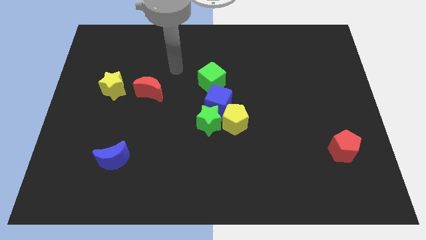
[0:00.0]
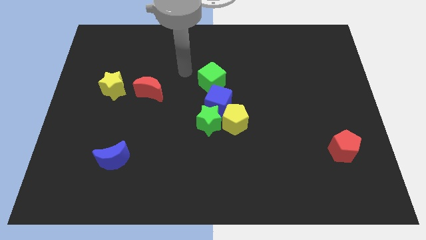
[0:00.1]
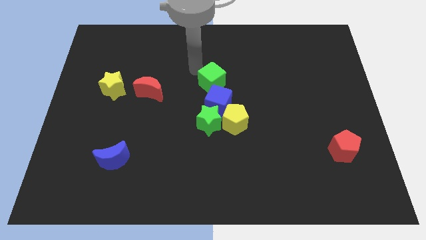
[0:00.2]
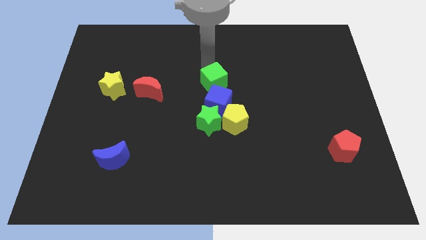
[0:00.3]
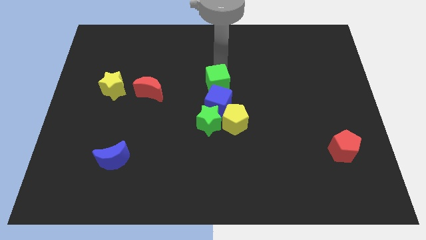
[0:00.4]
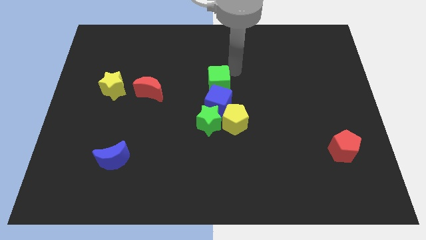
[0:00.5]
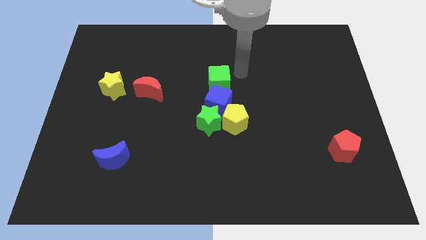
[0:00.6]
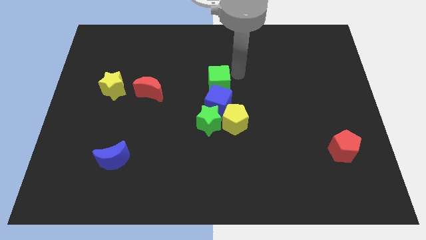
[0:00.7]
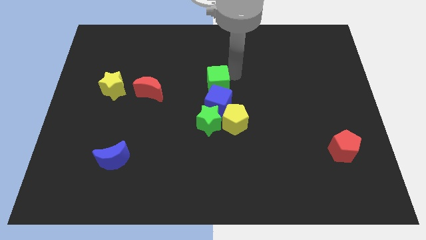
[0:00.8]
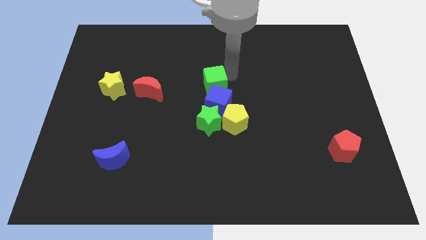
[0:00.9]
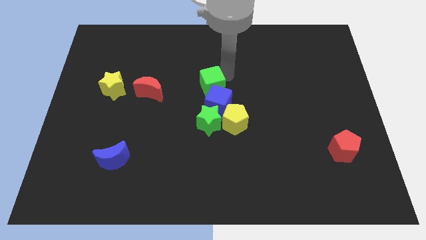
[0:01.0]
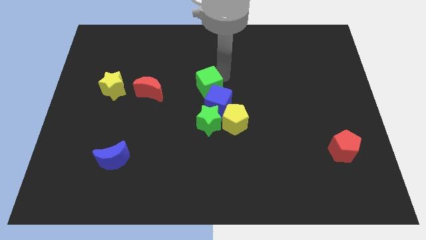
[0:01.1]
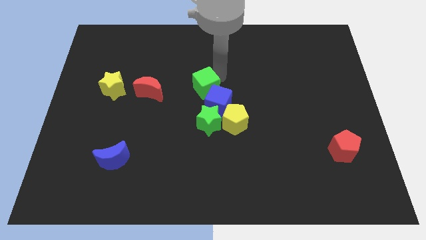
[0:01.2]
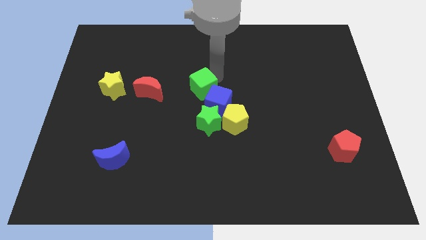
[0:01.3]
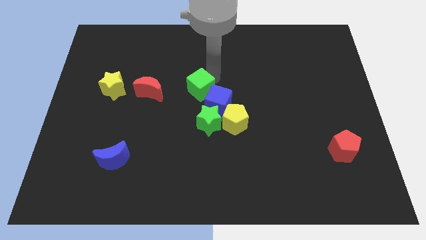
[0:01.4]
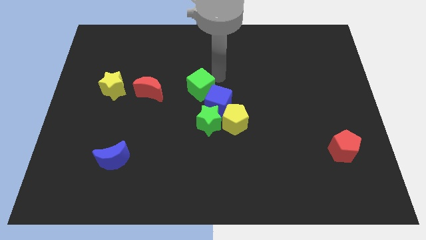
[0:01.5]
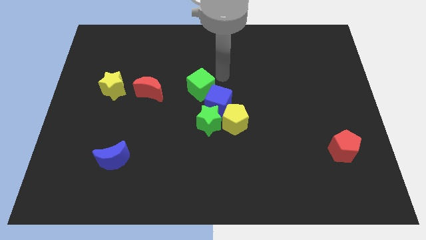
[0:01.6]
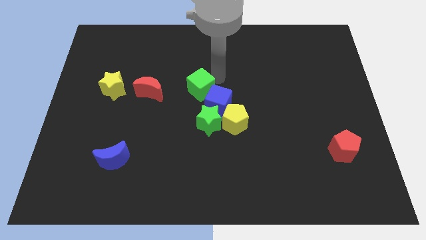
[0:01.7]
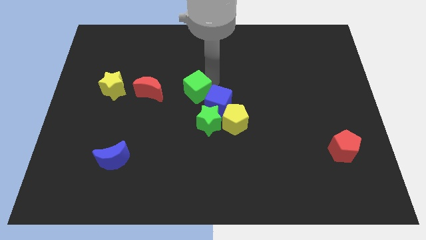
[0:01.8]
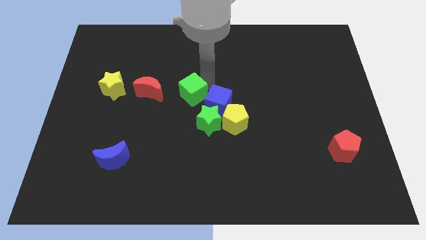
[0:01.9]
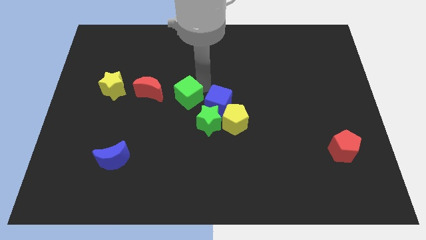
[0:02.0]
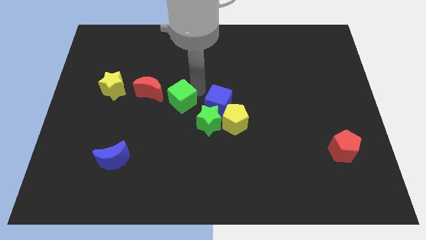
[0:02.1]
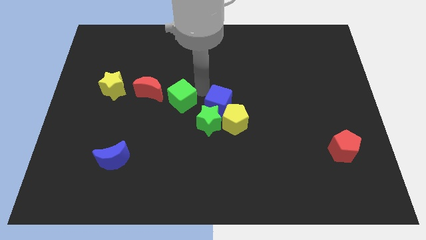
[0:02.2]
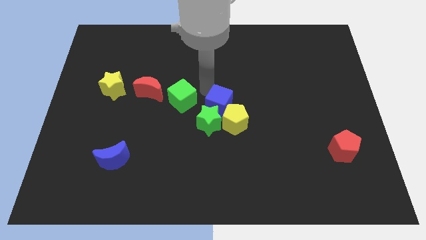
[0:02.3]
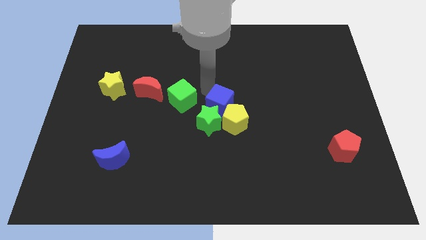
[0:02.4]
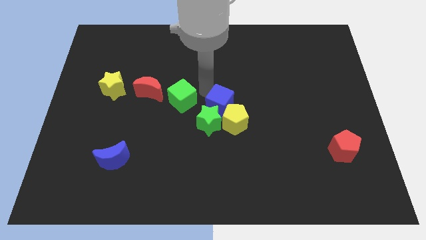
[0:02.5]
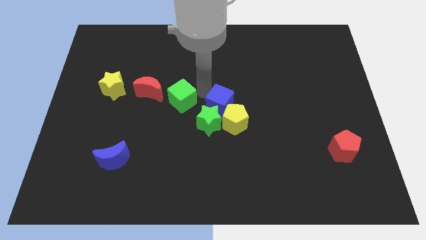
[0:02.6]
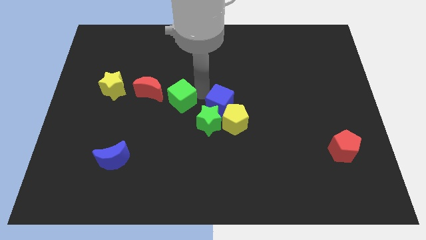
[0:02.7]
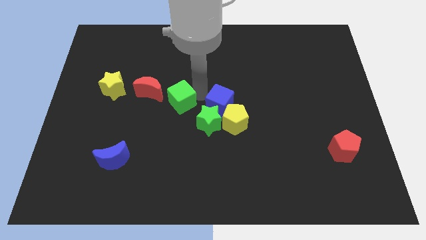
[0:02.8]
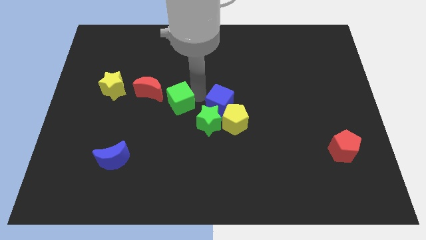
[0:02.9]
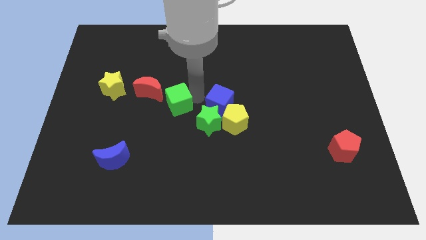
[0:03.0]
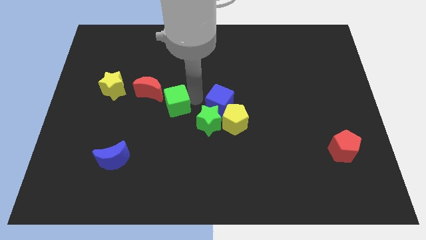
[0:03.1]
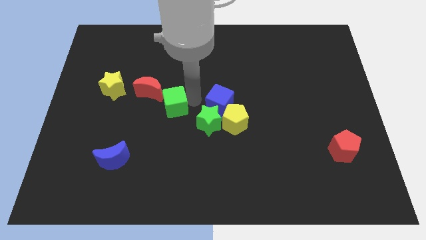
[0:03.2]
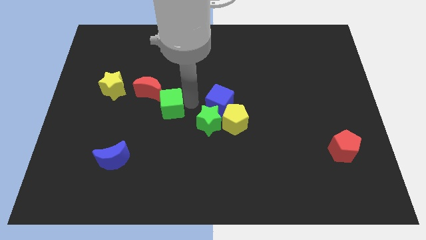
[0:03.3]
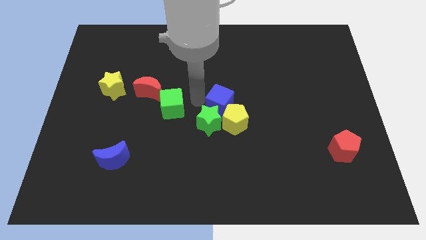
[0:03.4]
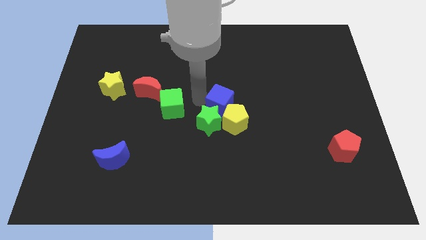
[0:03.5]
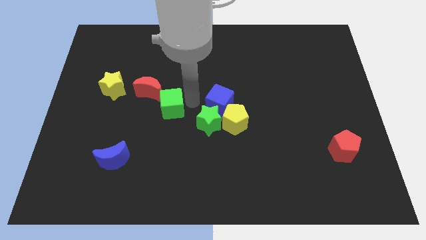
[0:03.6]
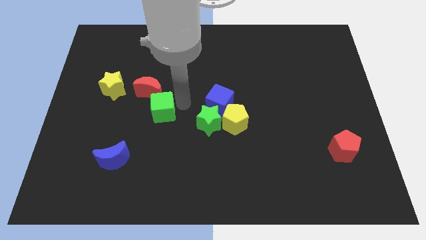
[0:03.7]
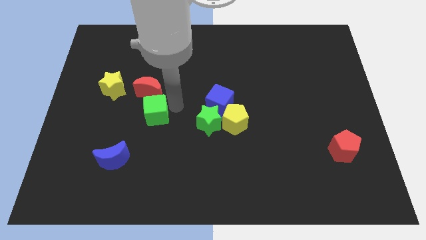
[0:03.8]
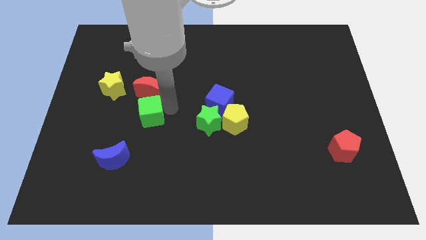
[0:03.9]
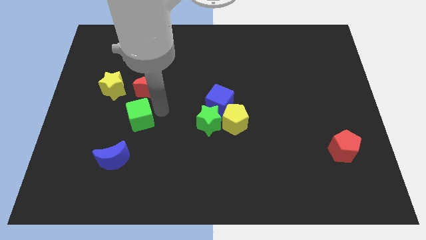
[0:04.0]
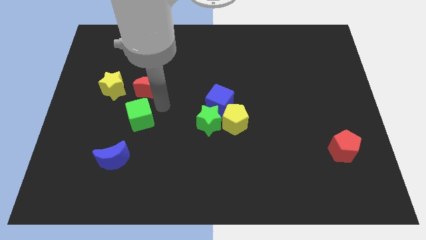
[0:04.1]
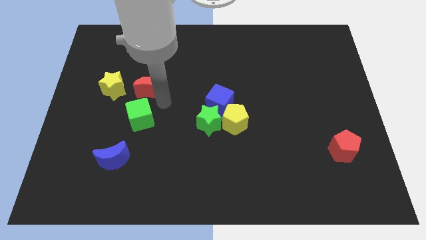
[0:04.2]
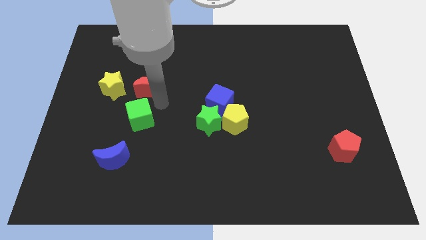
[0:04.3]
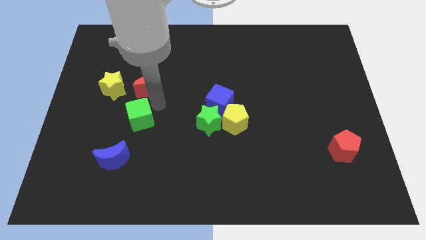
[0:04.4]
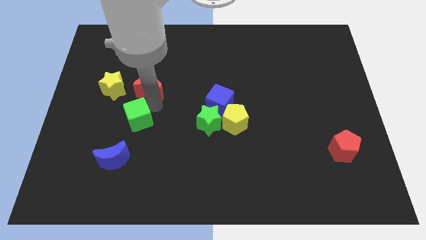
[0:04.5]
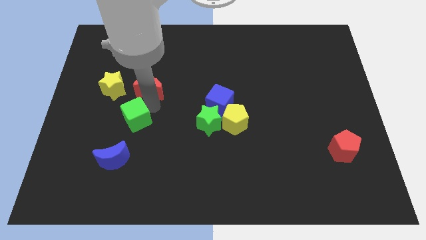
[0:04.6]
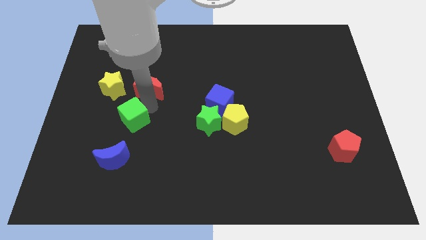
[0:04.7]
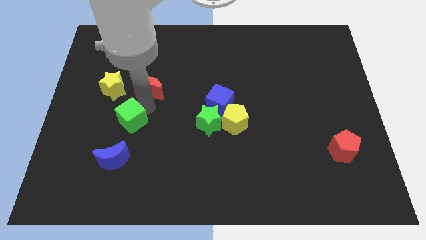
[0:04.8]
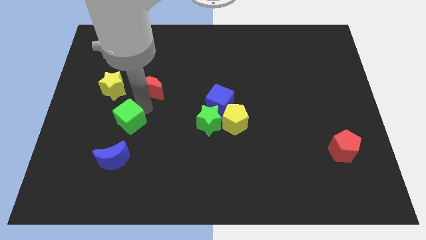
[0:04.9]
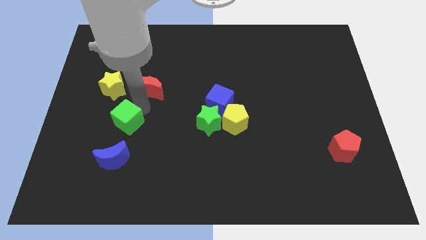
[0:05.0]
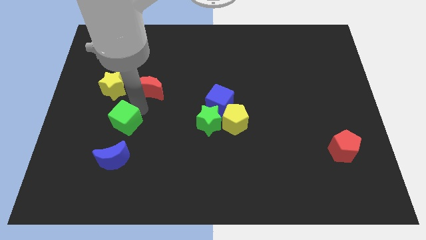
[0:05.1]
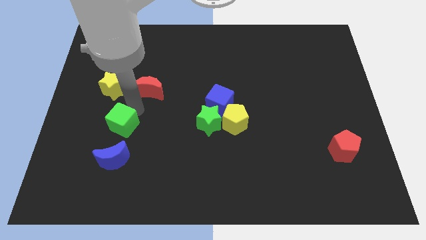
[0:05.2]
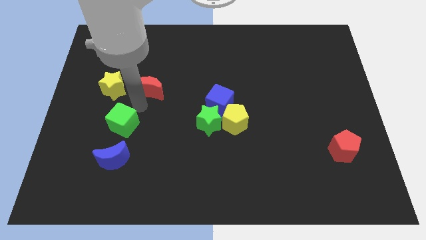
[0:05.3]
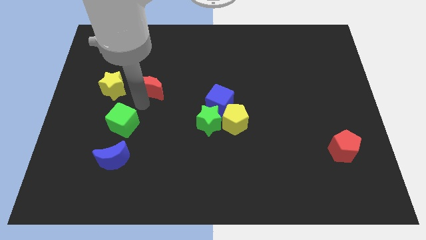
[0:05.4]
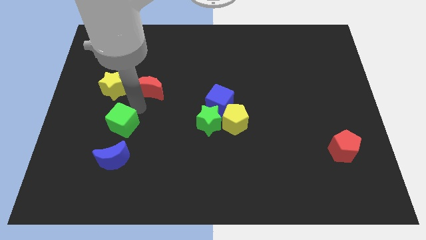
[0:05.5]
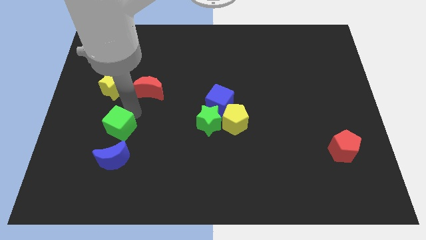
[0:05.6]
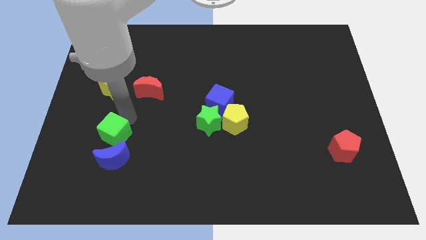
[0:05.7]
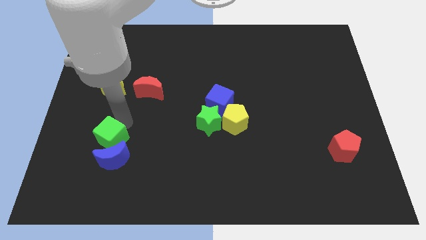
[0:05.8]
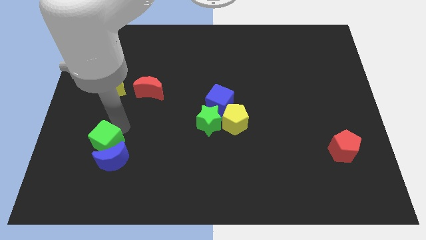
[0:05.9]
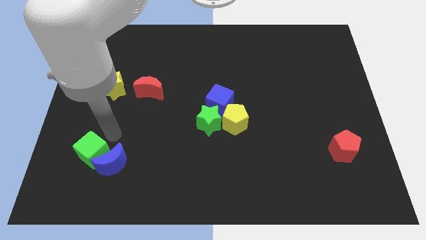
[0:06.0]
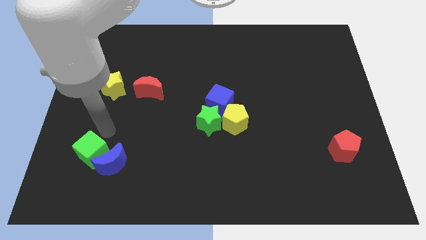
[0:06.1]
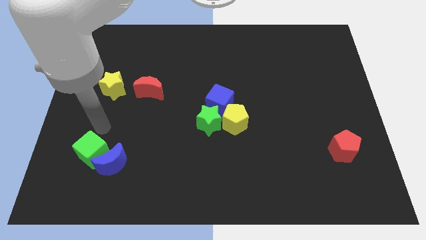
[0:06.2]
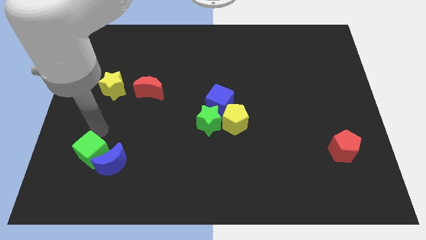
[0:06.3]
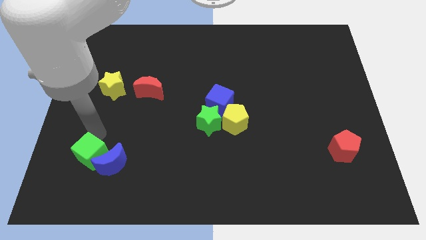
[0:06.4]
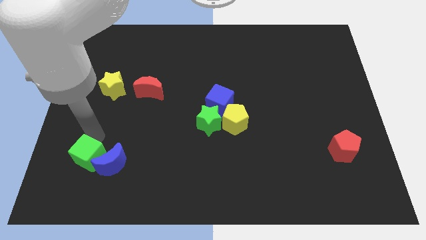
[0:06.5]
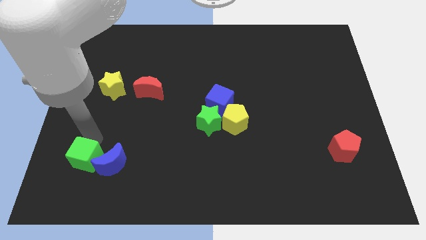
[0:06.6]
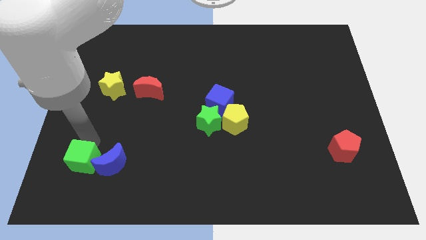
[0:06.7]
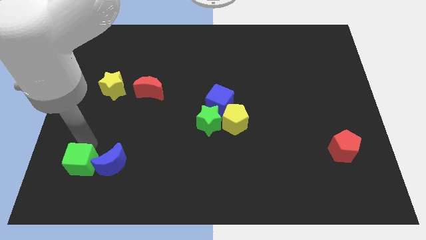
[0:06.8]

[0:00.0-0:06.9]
push the green cube to the bottom left side of the blue moon
